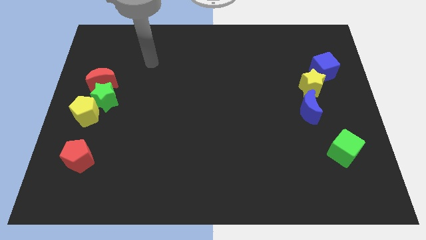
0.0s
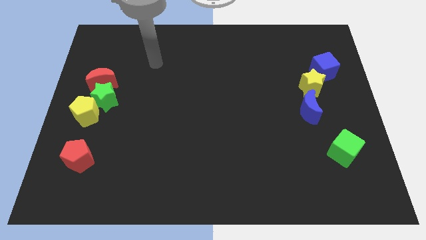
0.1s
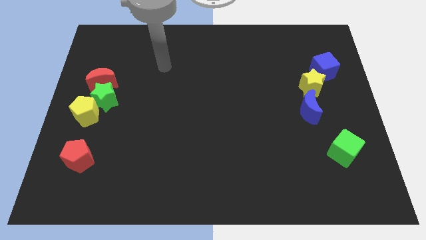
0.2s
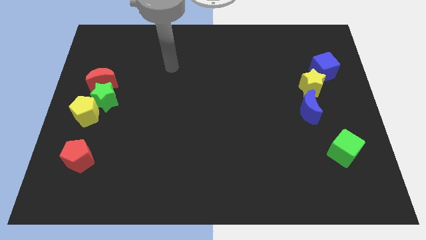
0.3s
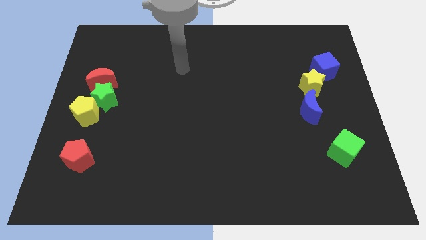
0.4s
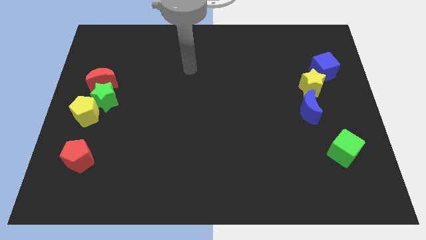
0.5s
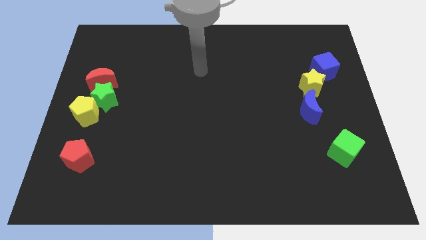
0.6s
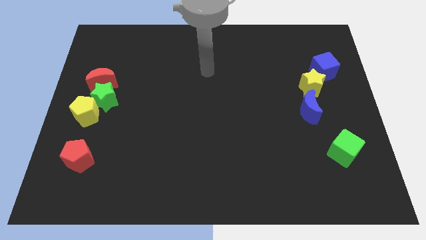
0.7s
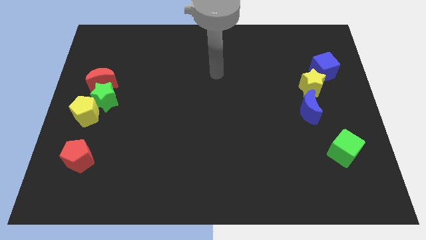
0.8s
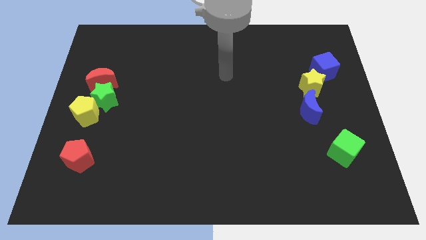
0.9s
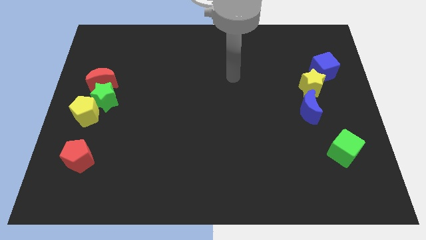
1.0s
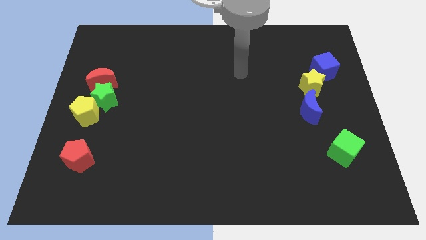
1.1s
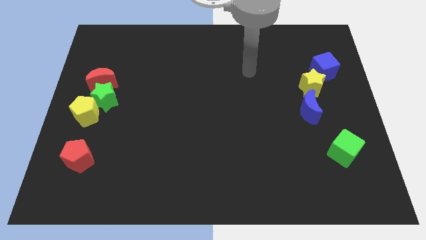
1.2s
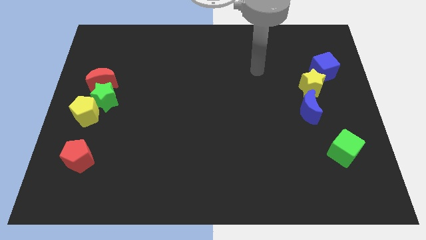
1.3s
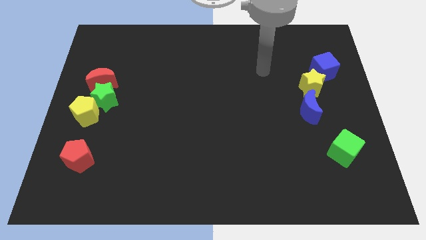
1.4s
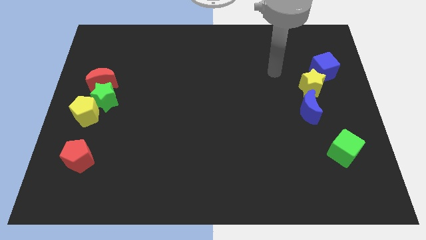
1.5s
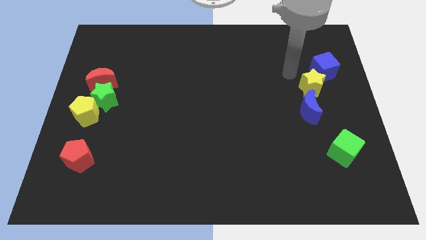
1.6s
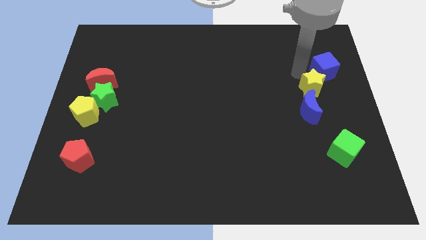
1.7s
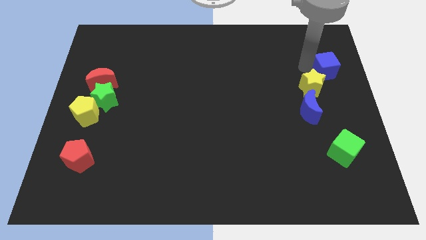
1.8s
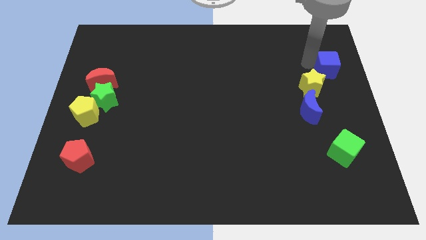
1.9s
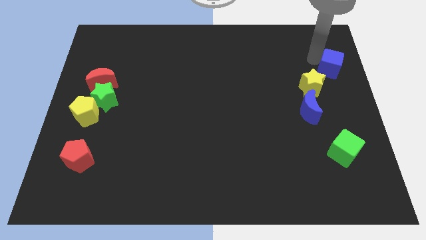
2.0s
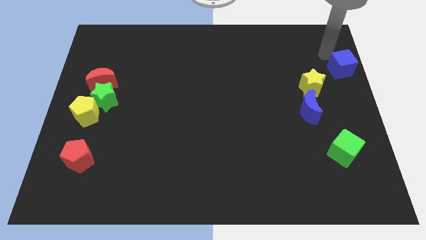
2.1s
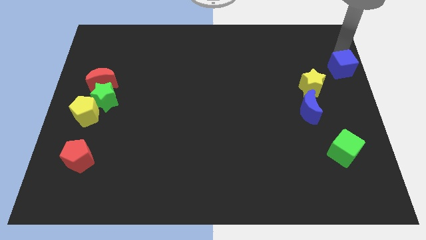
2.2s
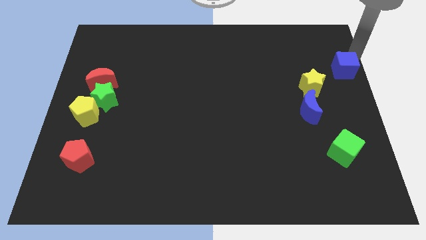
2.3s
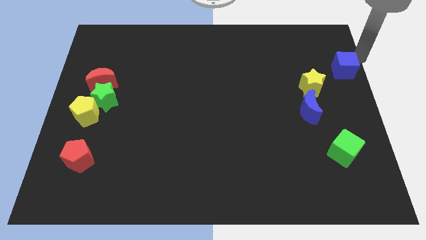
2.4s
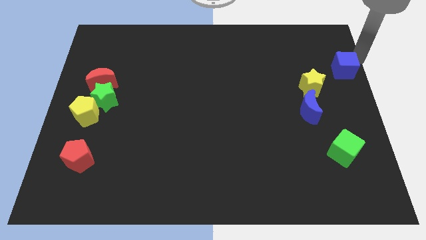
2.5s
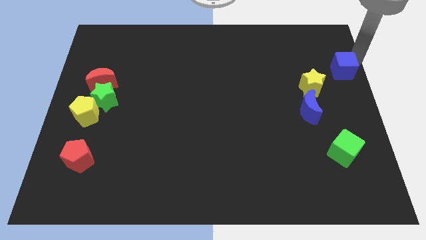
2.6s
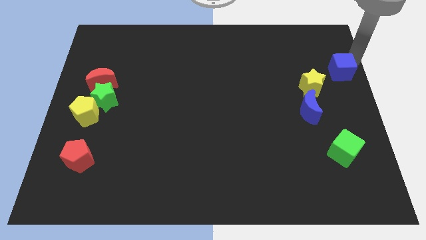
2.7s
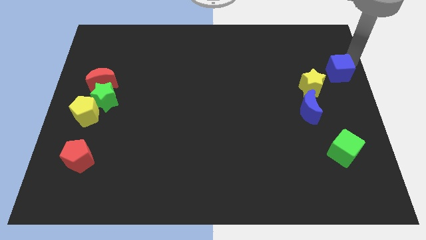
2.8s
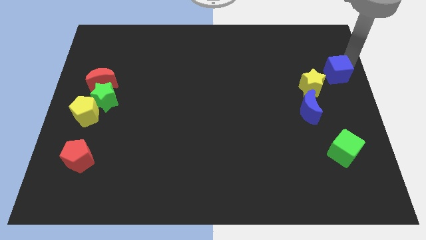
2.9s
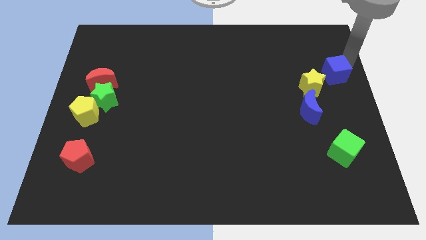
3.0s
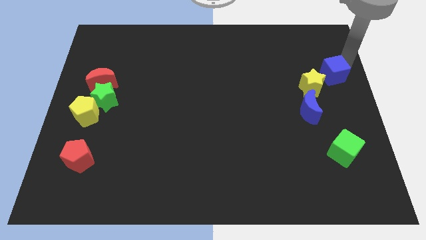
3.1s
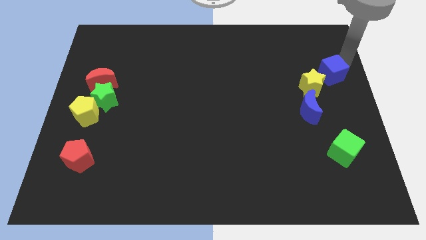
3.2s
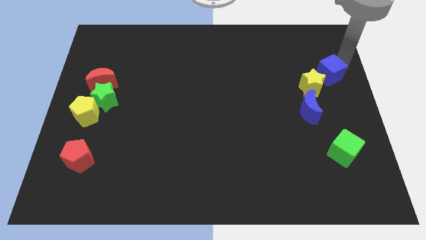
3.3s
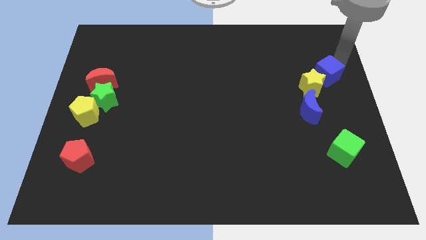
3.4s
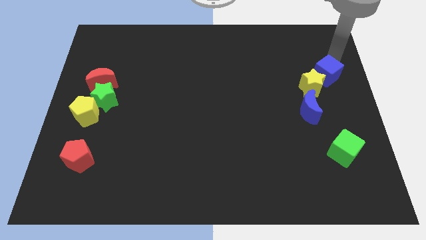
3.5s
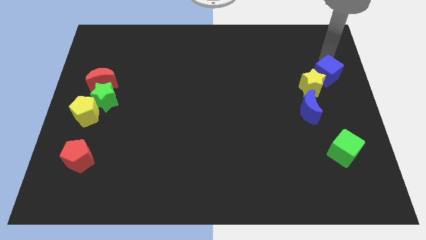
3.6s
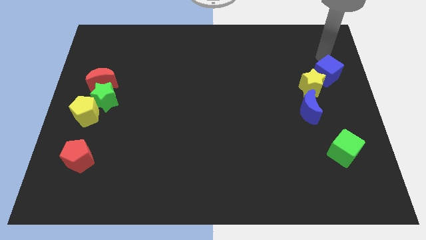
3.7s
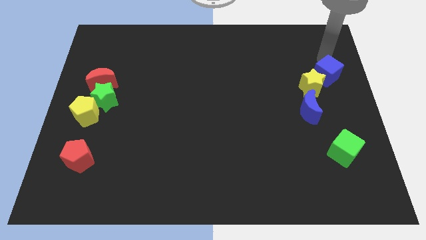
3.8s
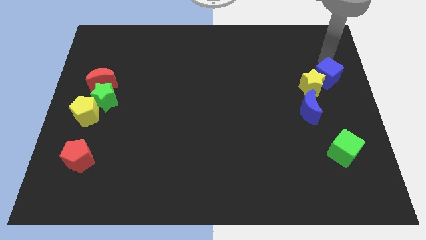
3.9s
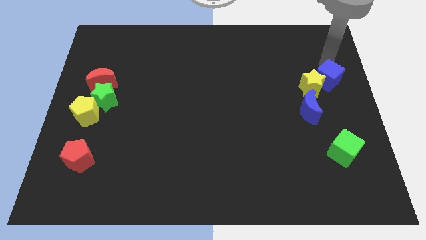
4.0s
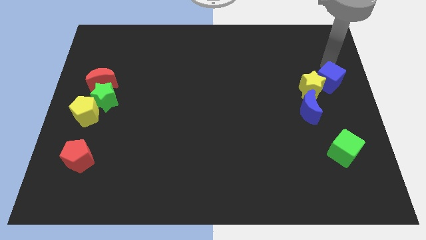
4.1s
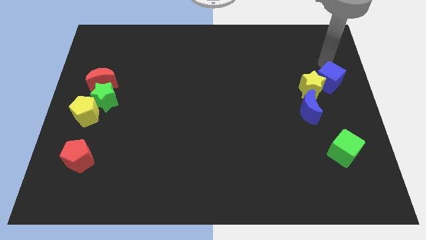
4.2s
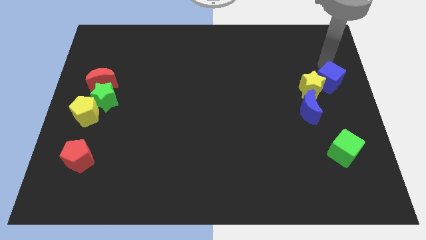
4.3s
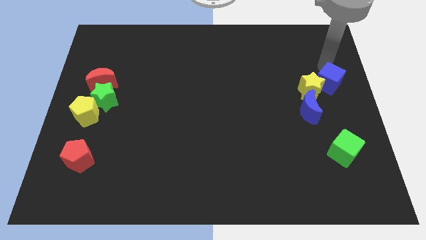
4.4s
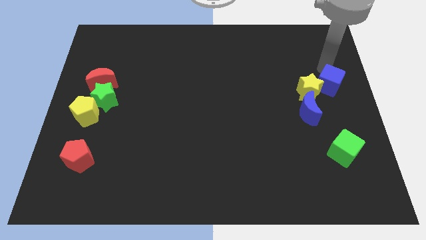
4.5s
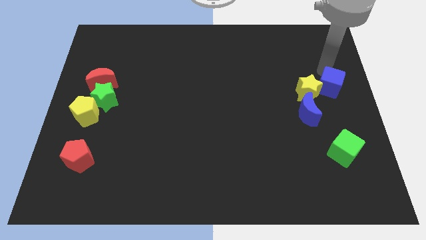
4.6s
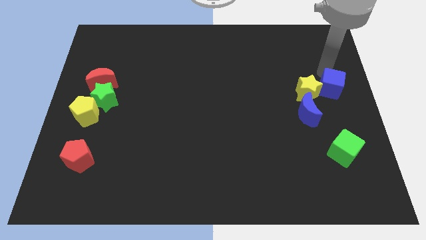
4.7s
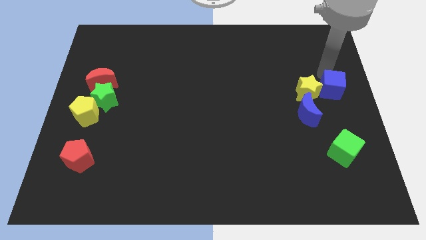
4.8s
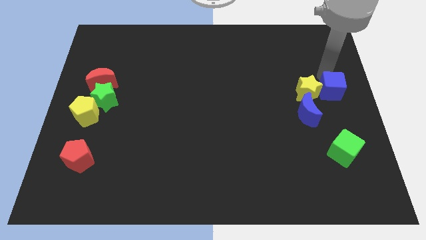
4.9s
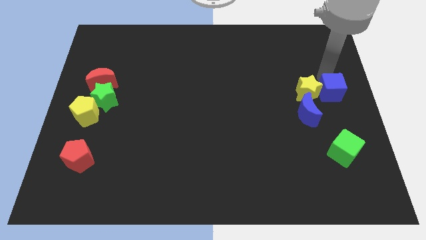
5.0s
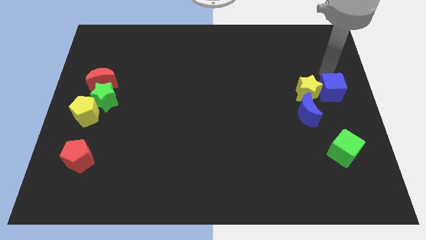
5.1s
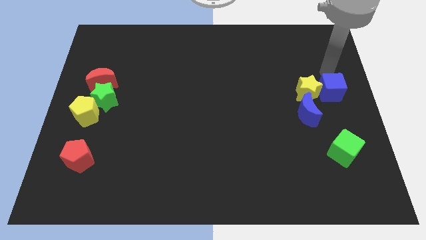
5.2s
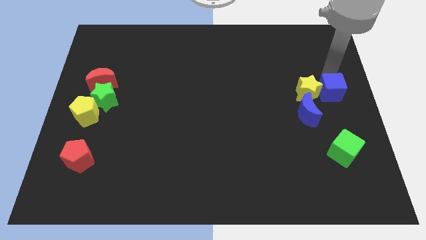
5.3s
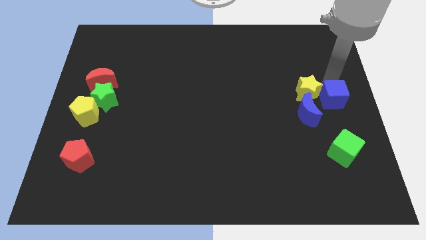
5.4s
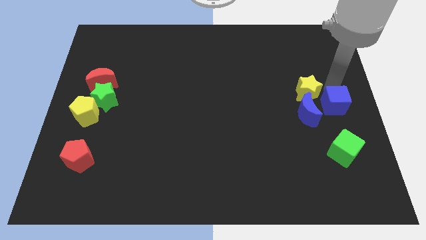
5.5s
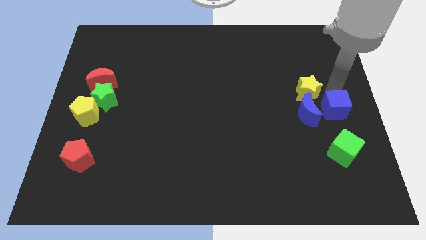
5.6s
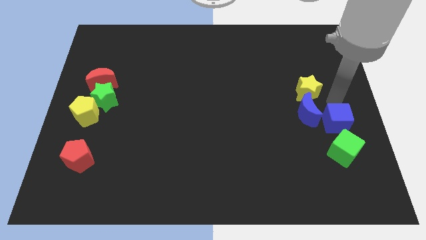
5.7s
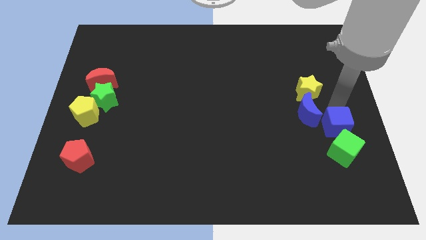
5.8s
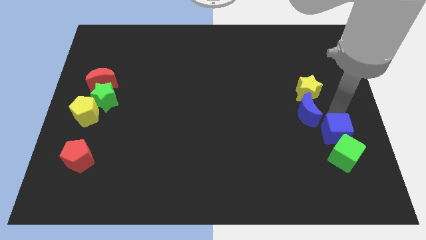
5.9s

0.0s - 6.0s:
move the blue cube next to the green cube

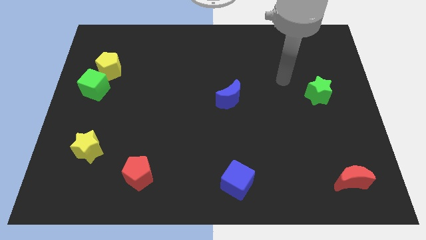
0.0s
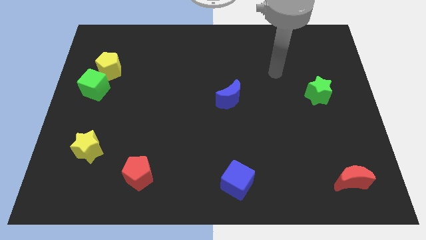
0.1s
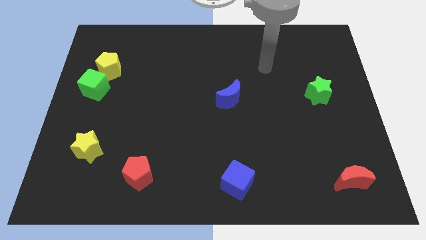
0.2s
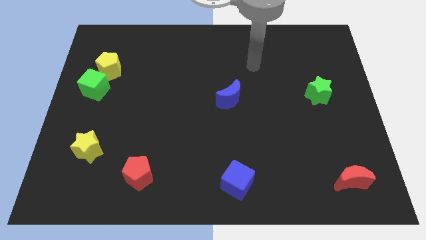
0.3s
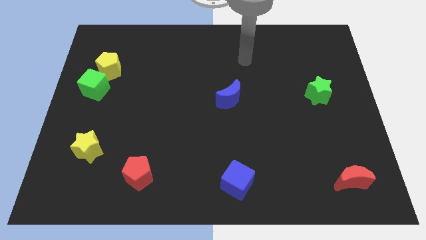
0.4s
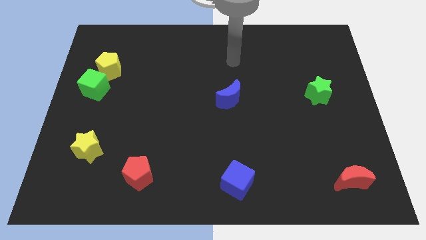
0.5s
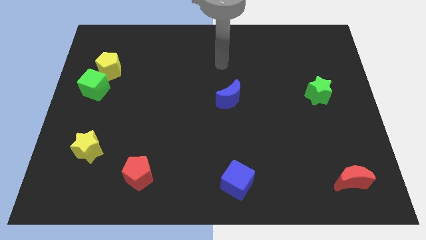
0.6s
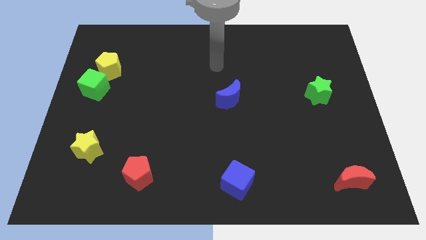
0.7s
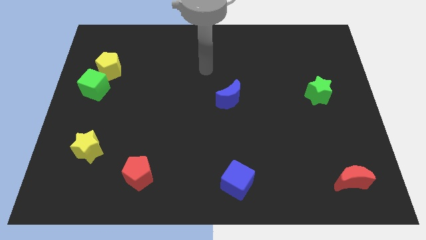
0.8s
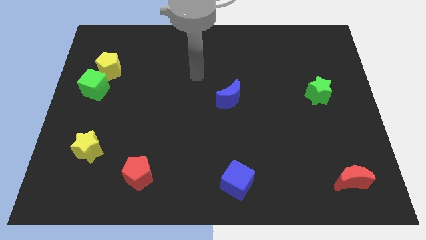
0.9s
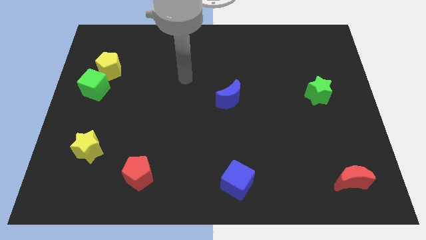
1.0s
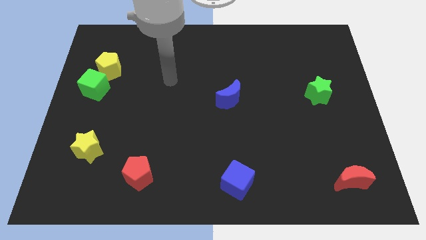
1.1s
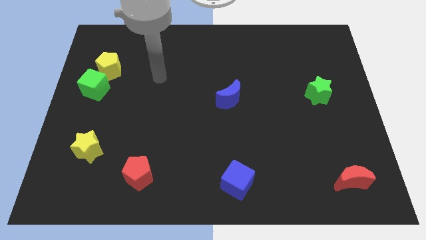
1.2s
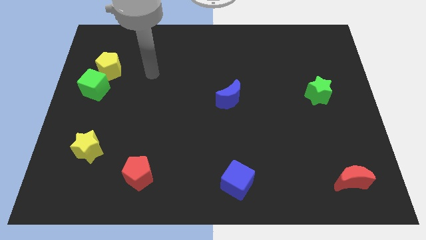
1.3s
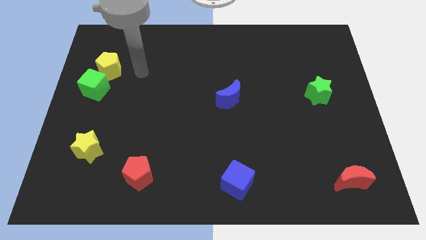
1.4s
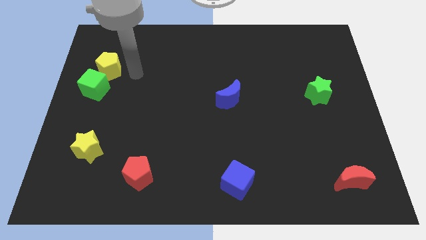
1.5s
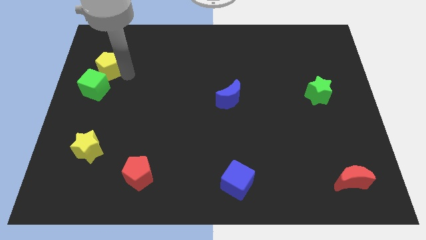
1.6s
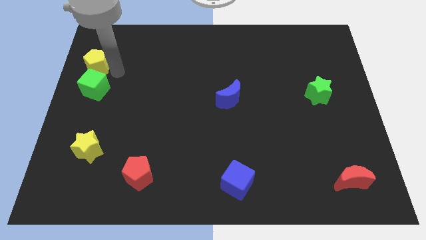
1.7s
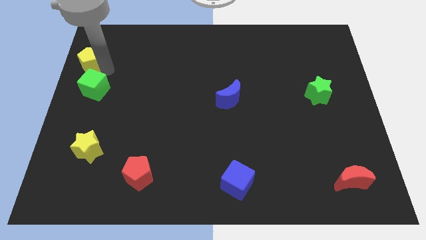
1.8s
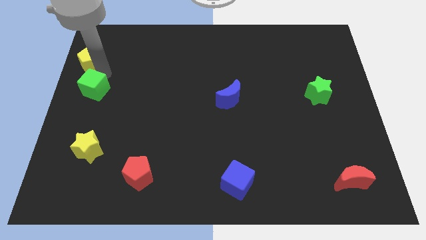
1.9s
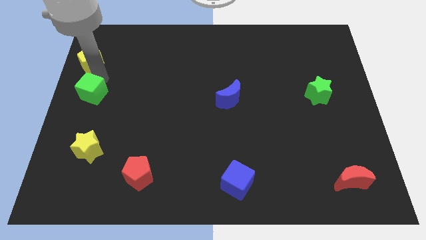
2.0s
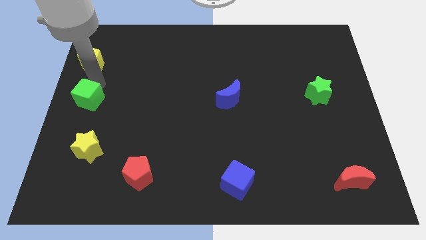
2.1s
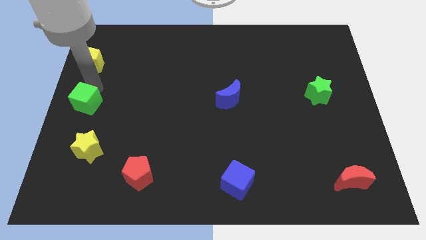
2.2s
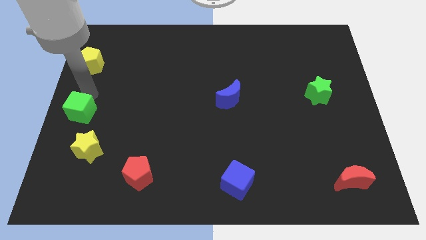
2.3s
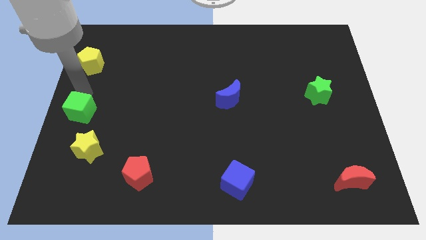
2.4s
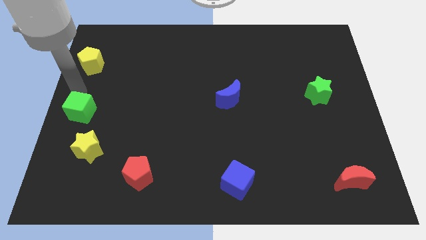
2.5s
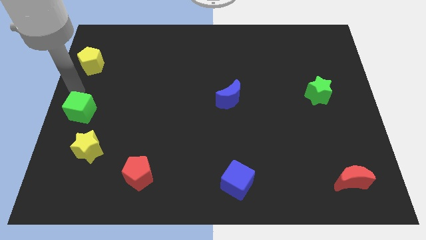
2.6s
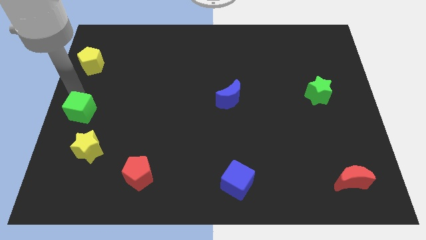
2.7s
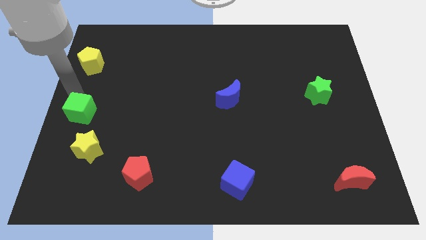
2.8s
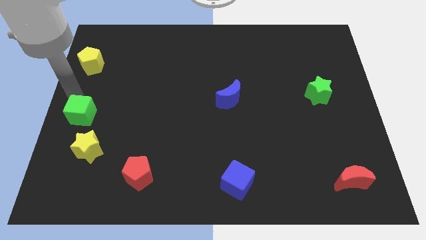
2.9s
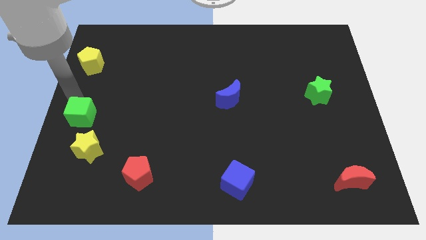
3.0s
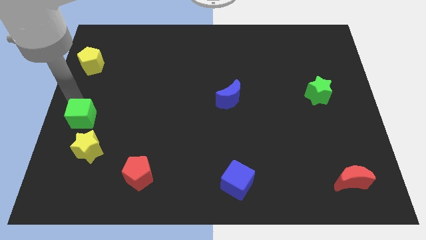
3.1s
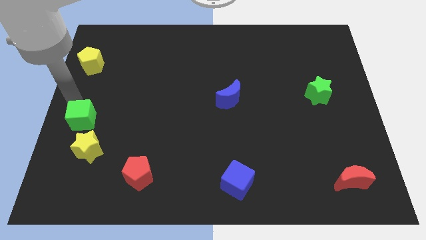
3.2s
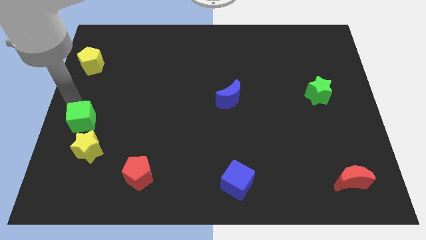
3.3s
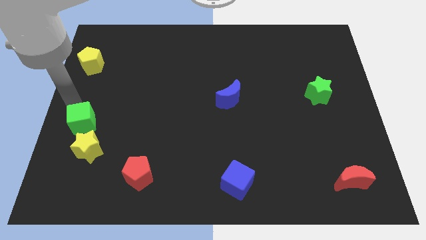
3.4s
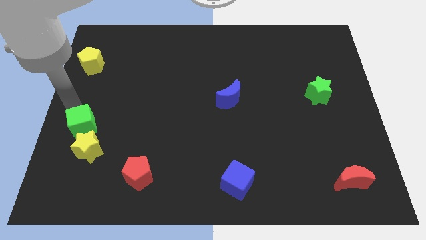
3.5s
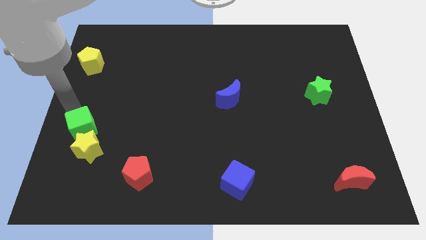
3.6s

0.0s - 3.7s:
put the green cube to the yellow star
